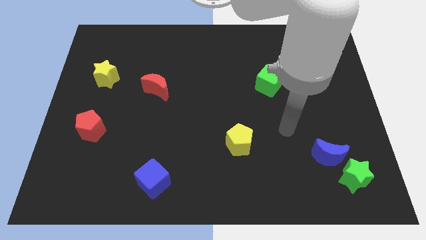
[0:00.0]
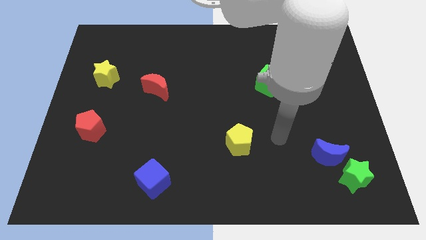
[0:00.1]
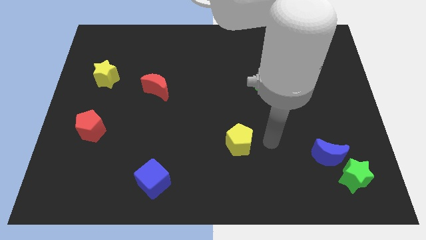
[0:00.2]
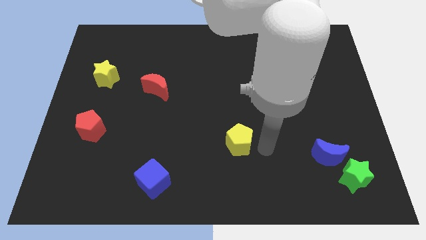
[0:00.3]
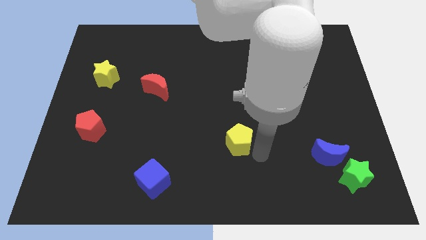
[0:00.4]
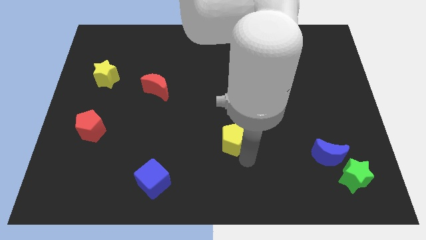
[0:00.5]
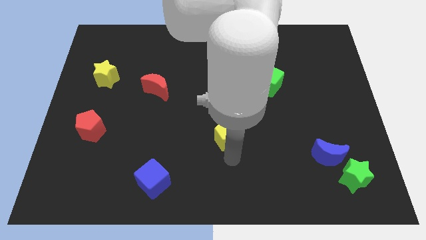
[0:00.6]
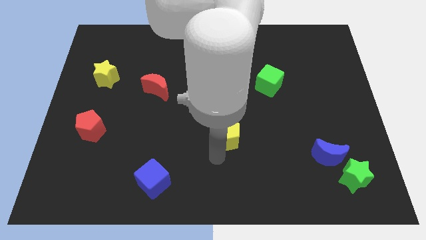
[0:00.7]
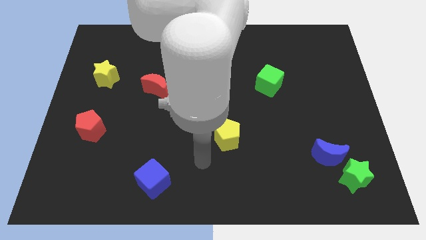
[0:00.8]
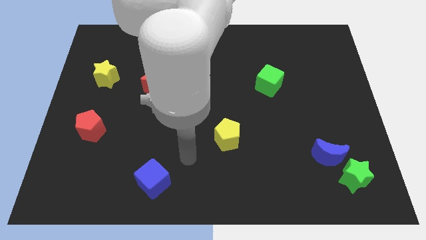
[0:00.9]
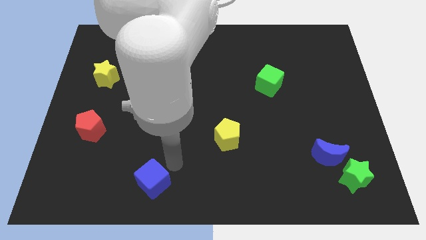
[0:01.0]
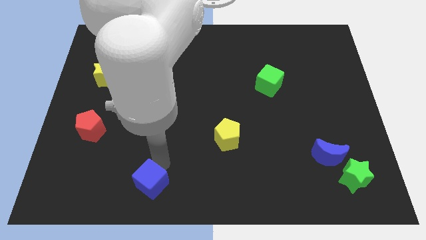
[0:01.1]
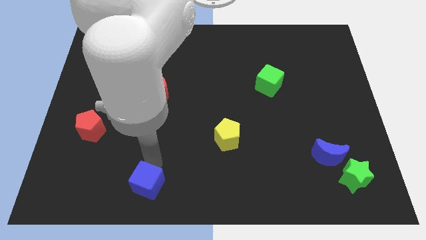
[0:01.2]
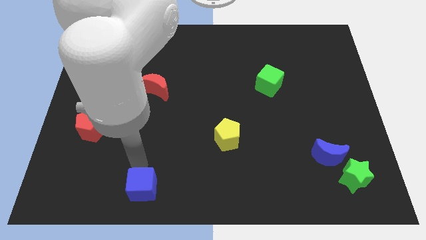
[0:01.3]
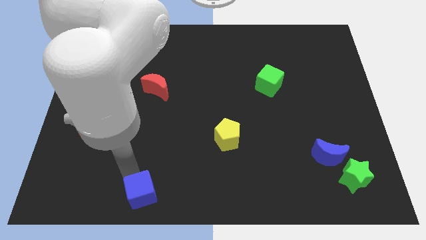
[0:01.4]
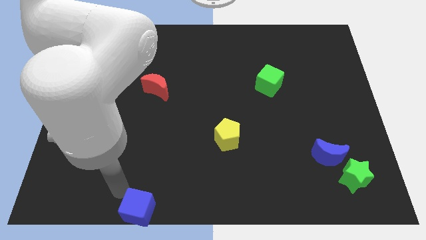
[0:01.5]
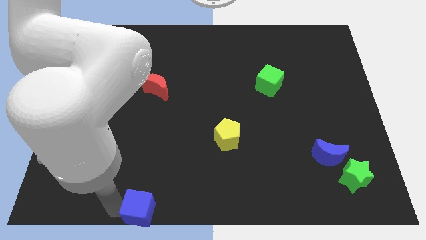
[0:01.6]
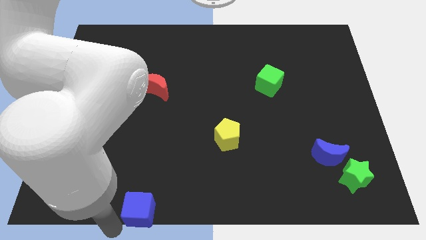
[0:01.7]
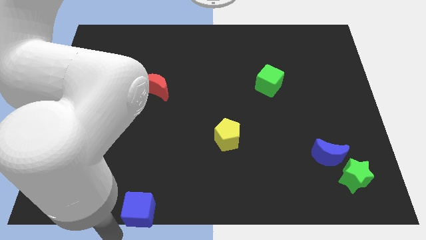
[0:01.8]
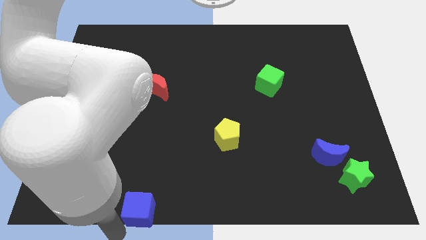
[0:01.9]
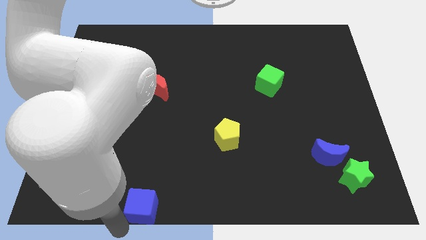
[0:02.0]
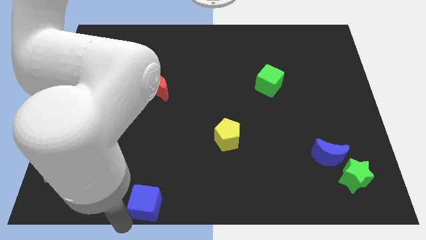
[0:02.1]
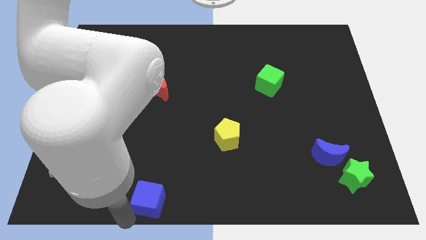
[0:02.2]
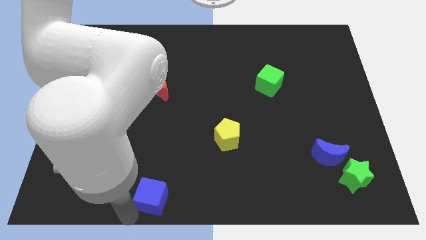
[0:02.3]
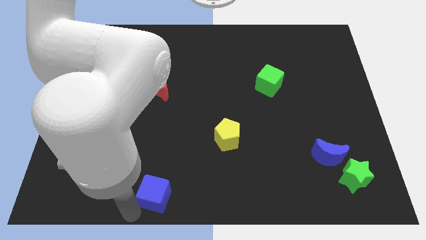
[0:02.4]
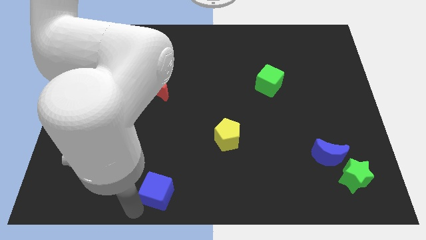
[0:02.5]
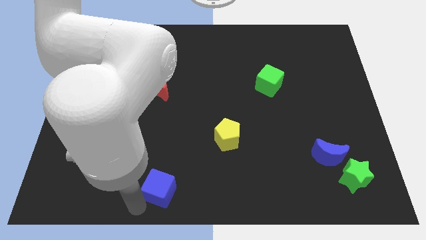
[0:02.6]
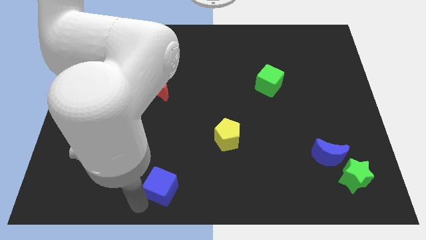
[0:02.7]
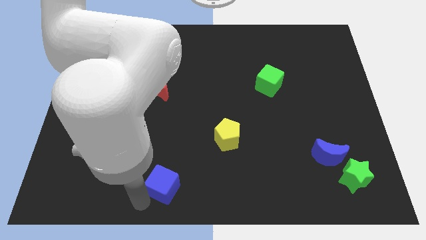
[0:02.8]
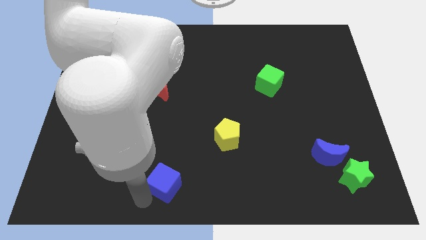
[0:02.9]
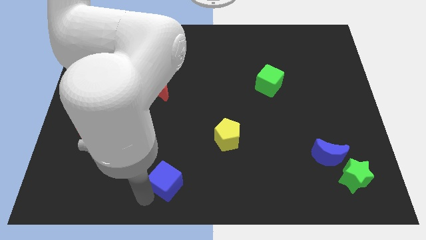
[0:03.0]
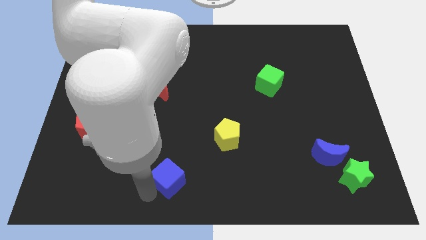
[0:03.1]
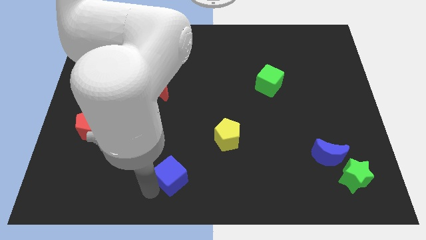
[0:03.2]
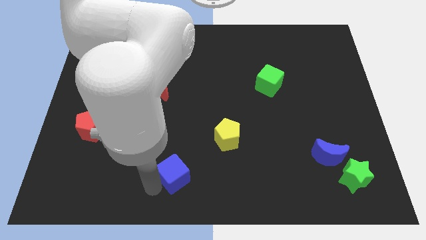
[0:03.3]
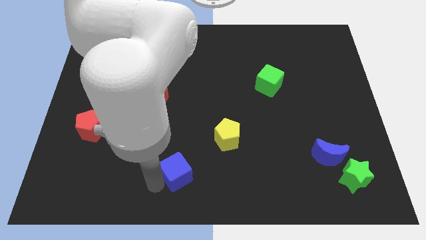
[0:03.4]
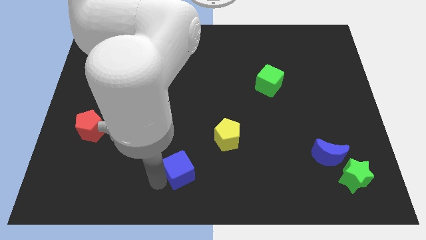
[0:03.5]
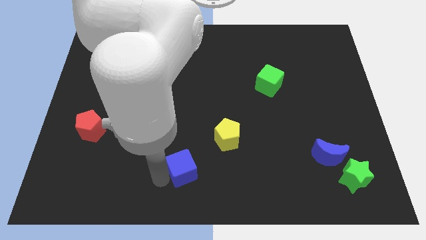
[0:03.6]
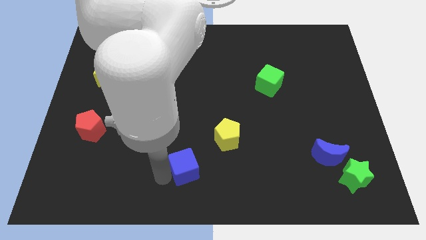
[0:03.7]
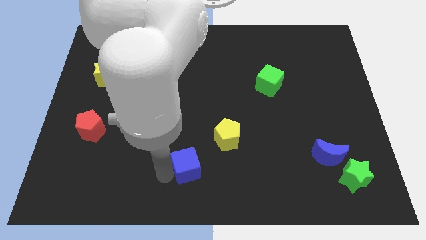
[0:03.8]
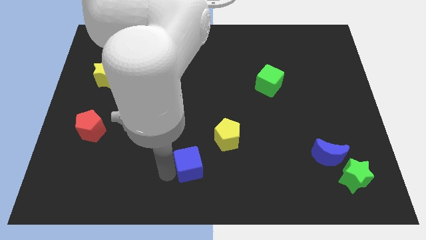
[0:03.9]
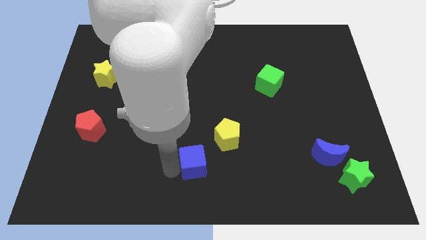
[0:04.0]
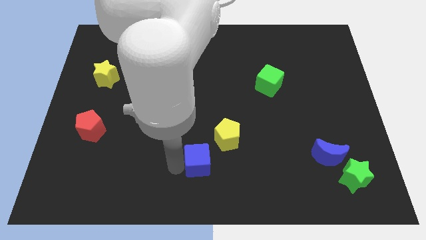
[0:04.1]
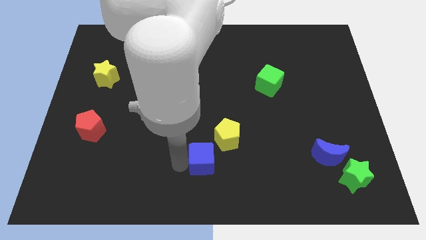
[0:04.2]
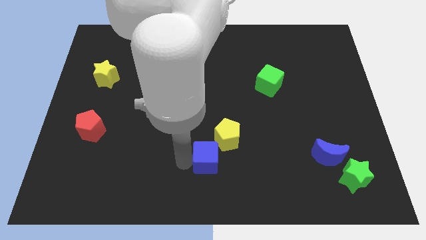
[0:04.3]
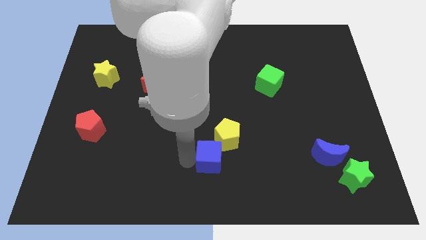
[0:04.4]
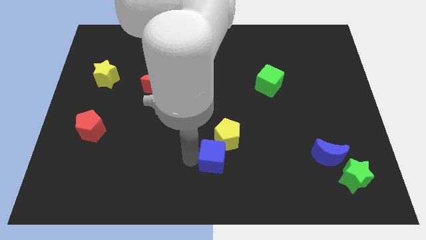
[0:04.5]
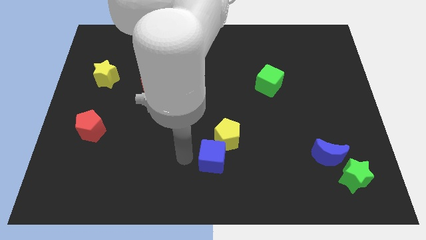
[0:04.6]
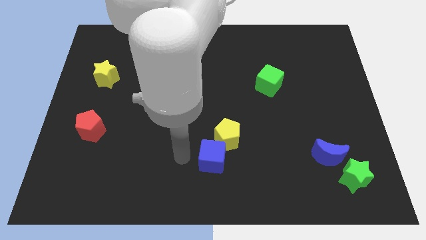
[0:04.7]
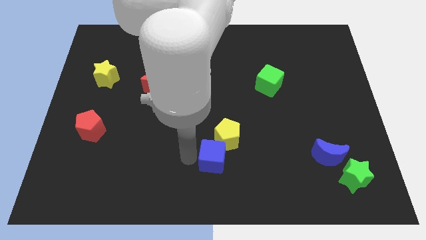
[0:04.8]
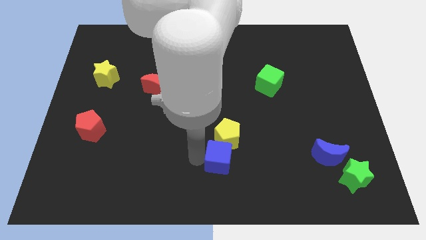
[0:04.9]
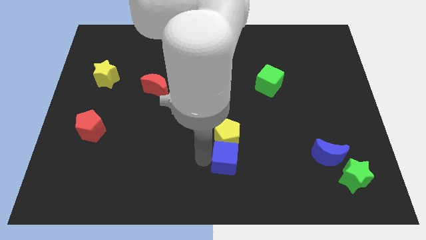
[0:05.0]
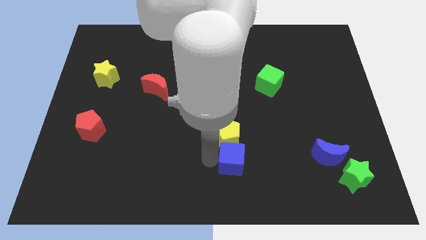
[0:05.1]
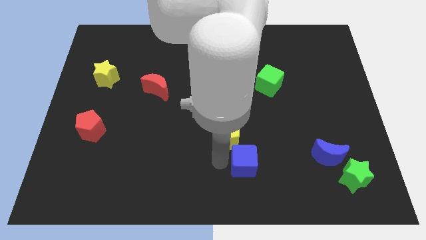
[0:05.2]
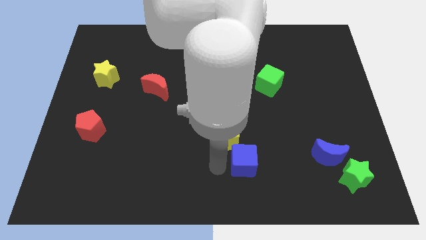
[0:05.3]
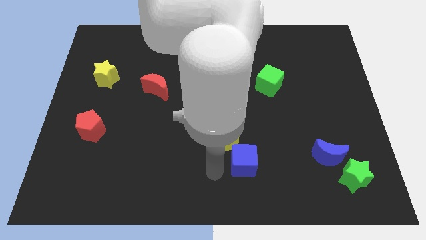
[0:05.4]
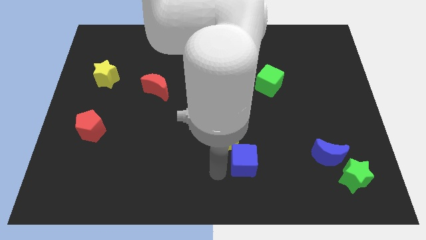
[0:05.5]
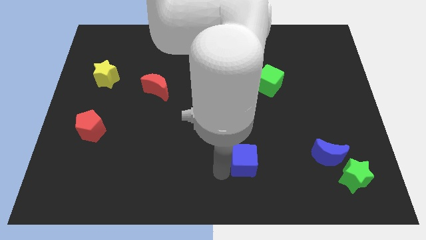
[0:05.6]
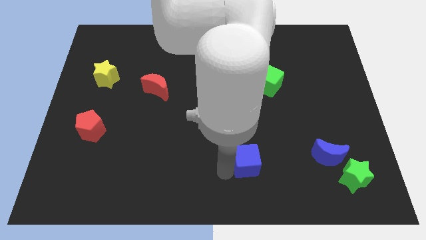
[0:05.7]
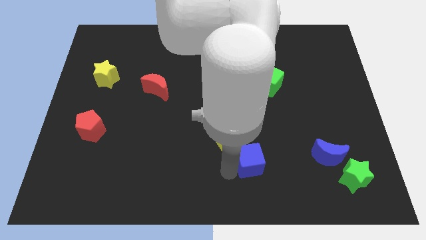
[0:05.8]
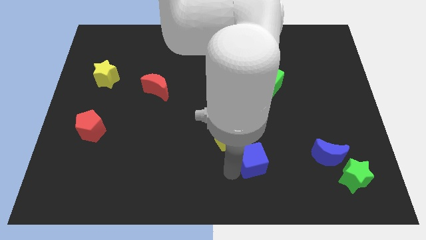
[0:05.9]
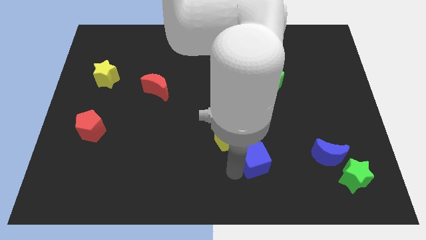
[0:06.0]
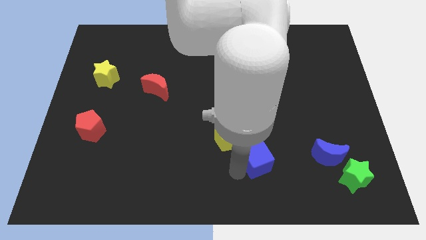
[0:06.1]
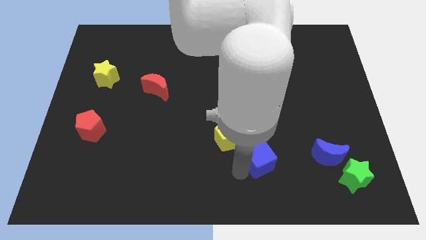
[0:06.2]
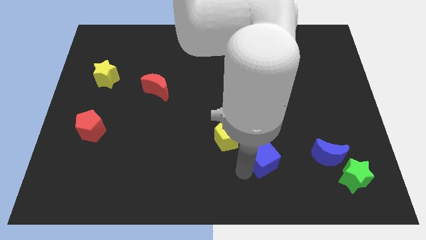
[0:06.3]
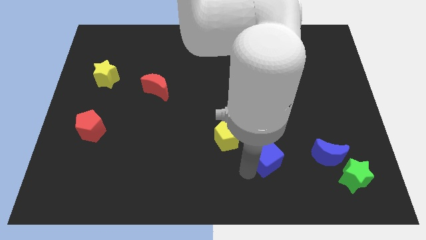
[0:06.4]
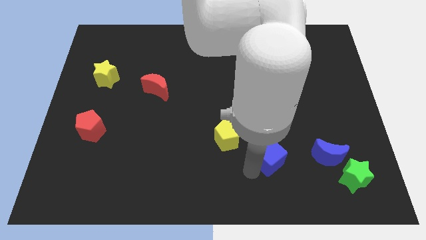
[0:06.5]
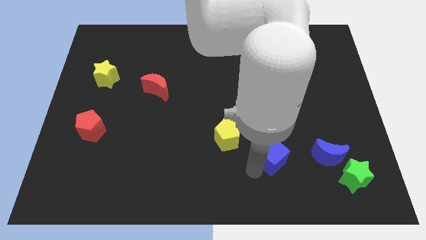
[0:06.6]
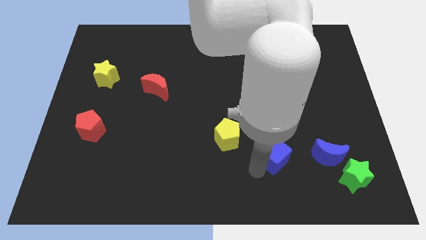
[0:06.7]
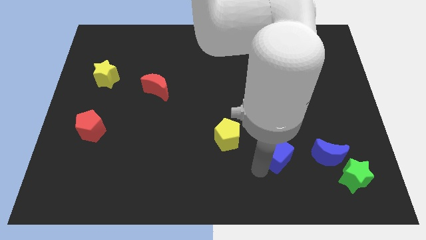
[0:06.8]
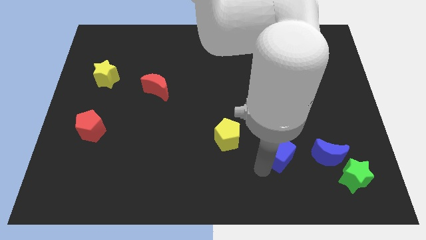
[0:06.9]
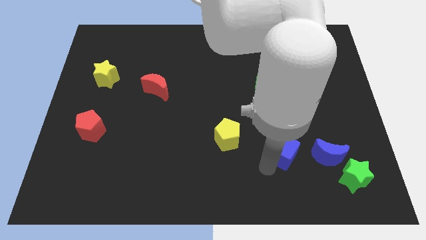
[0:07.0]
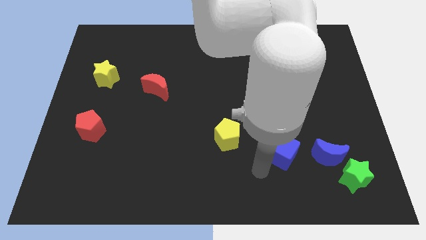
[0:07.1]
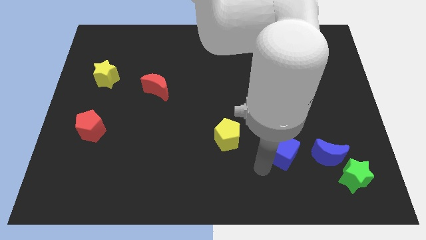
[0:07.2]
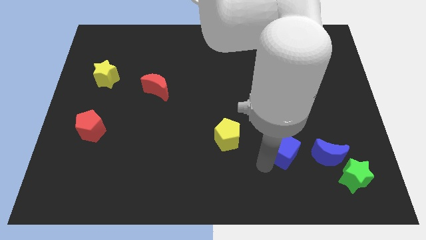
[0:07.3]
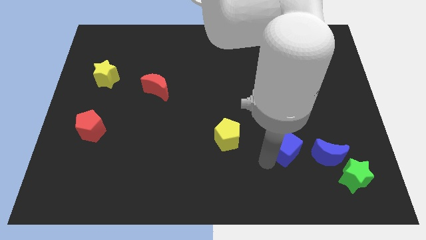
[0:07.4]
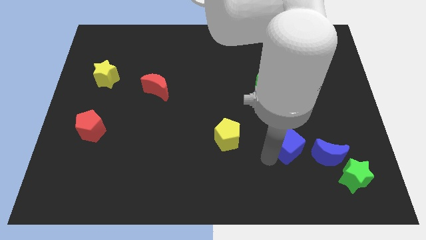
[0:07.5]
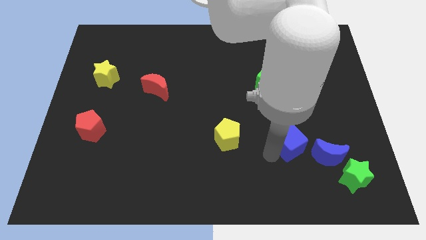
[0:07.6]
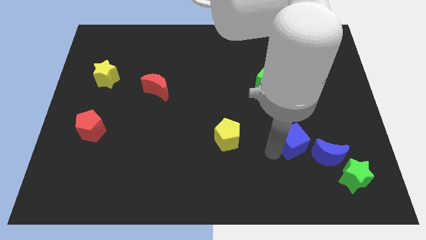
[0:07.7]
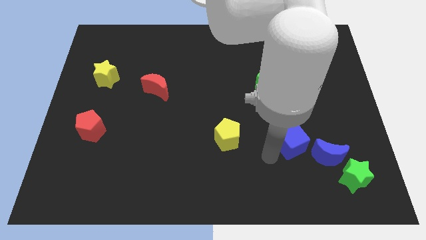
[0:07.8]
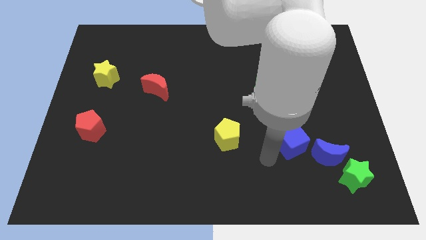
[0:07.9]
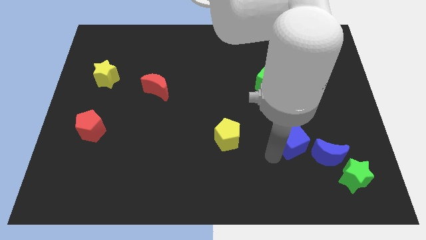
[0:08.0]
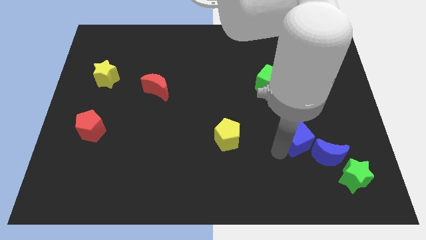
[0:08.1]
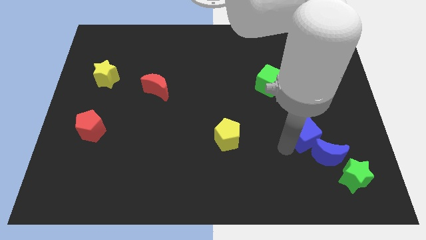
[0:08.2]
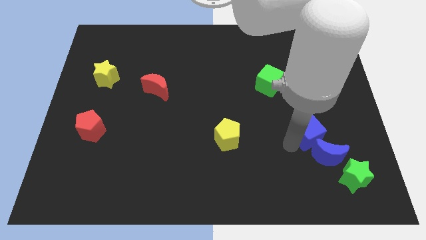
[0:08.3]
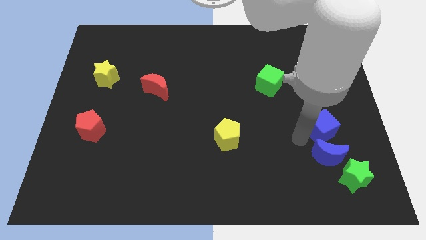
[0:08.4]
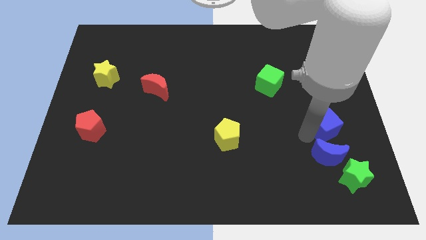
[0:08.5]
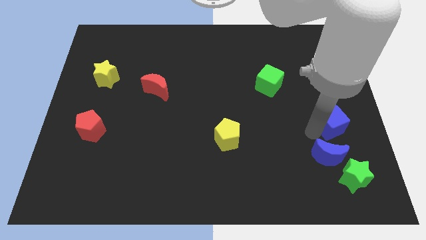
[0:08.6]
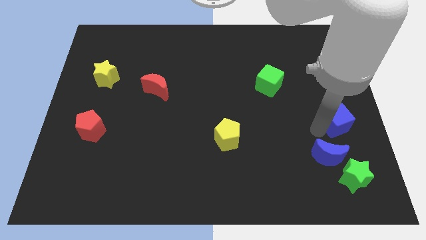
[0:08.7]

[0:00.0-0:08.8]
push the blue cube to the right side of the board
